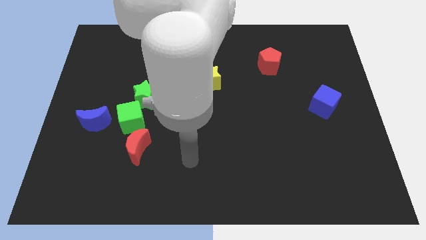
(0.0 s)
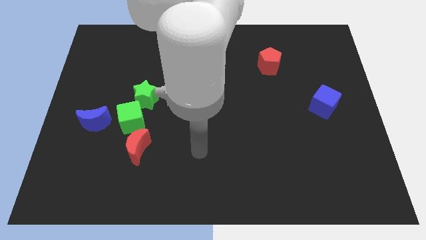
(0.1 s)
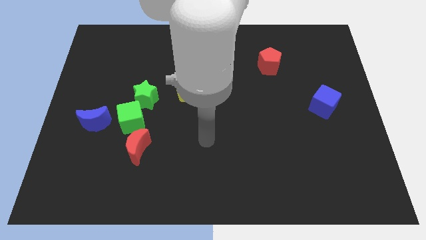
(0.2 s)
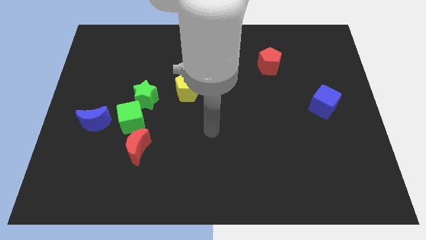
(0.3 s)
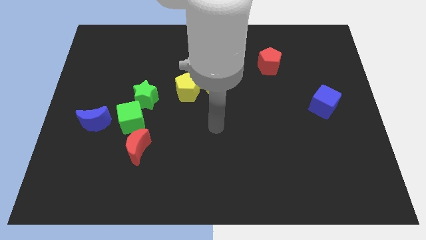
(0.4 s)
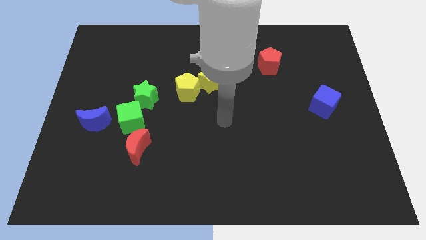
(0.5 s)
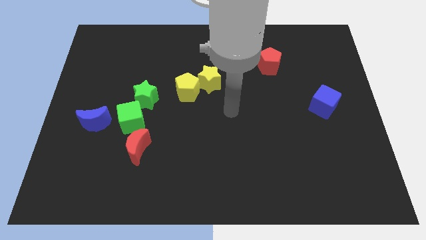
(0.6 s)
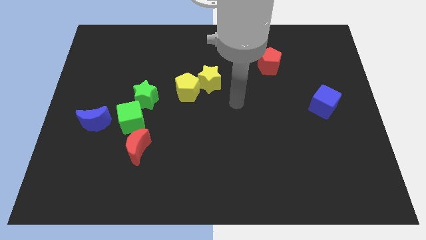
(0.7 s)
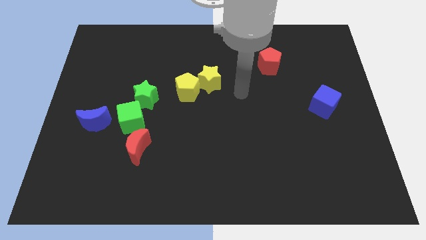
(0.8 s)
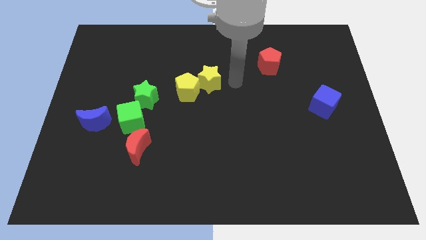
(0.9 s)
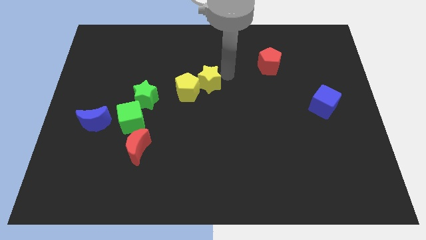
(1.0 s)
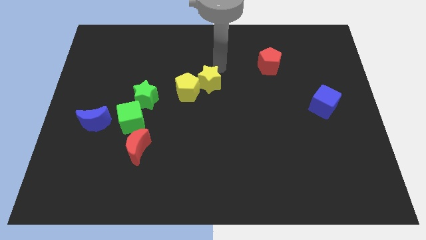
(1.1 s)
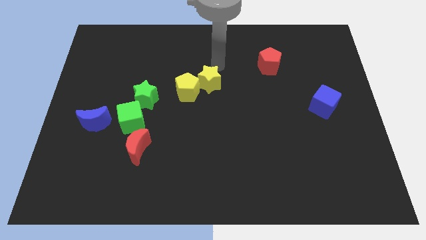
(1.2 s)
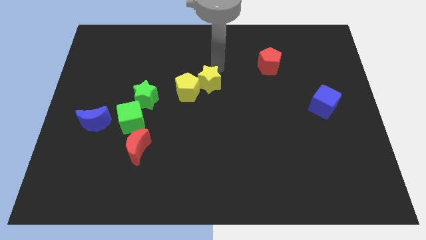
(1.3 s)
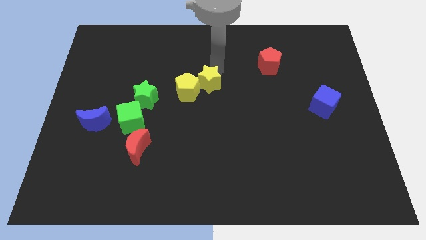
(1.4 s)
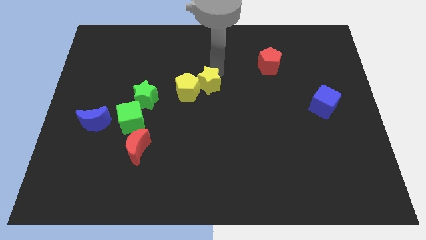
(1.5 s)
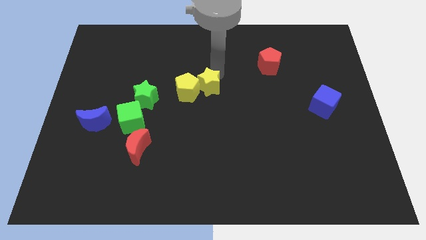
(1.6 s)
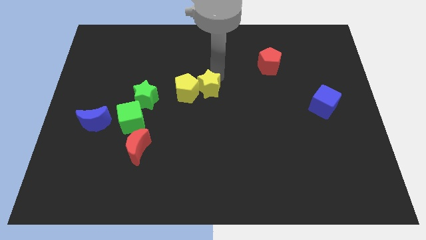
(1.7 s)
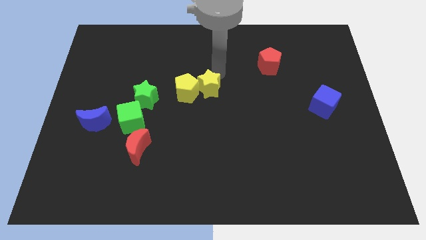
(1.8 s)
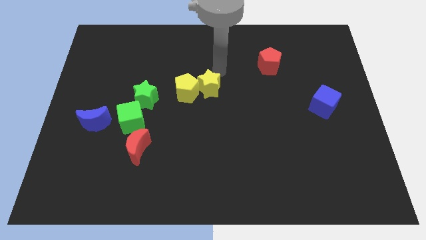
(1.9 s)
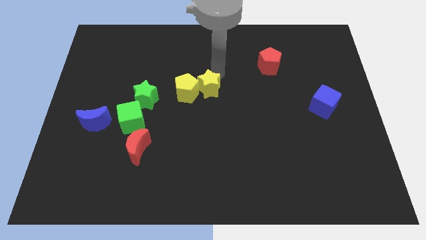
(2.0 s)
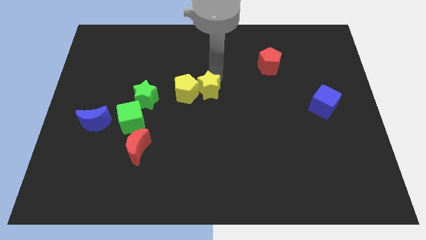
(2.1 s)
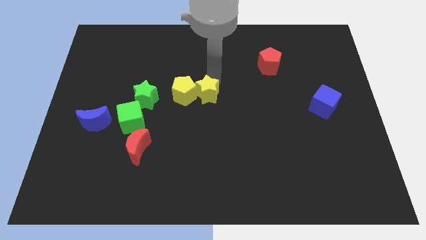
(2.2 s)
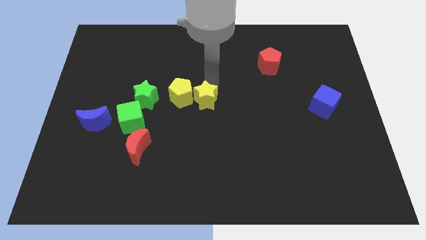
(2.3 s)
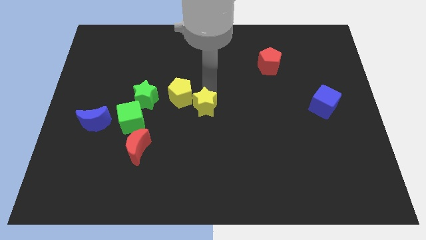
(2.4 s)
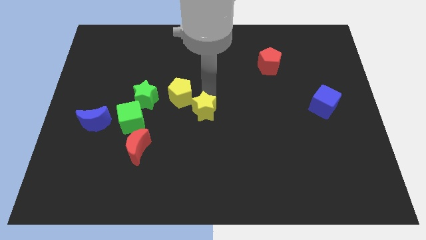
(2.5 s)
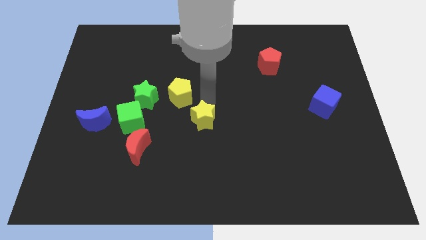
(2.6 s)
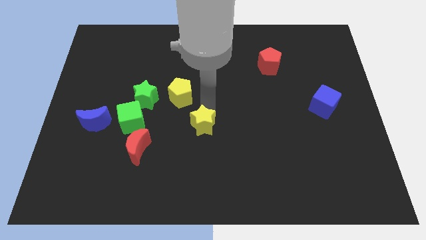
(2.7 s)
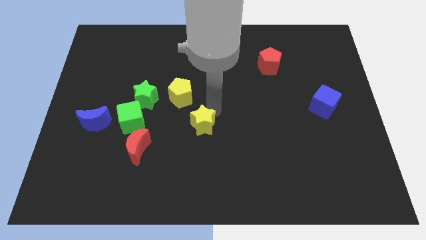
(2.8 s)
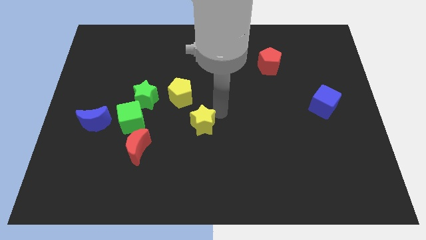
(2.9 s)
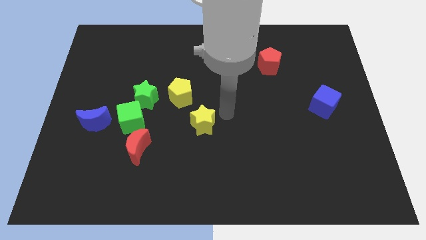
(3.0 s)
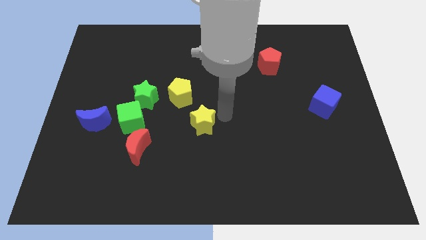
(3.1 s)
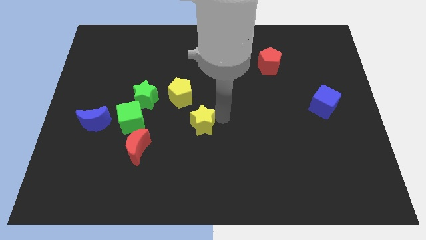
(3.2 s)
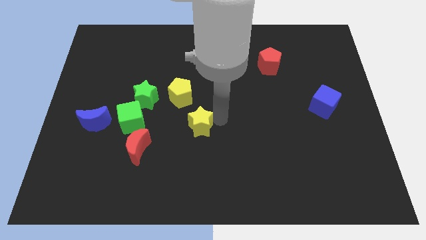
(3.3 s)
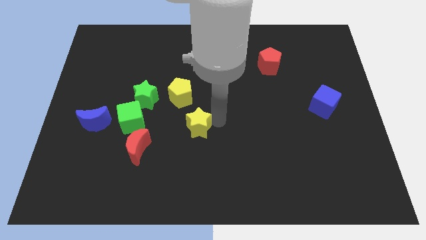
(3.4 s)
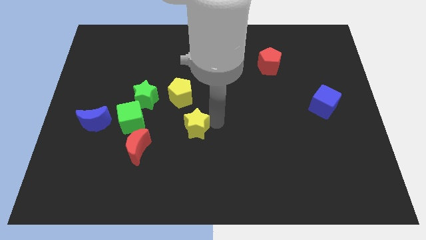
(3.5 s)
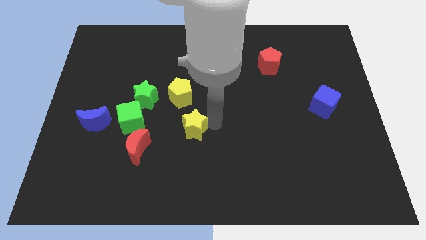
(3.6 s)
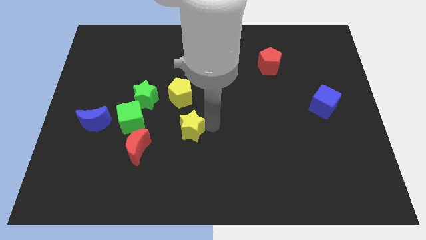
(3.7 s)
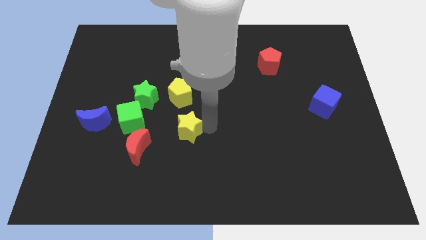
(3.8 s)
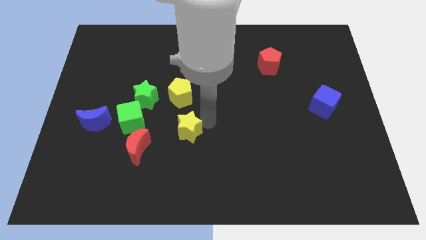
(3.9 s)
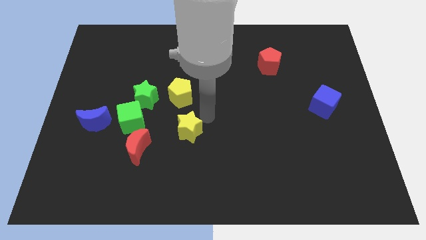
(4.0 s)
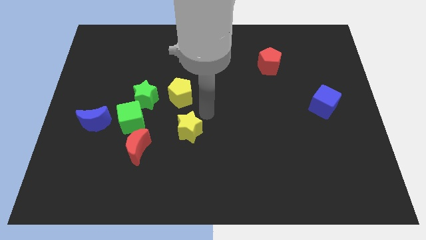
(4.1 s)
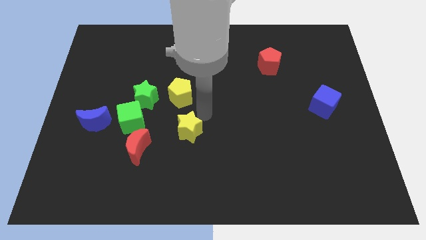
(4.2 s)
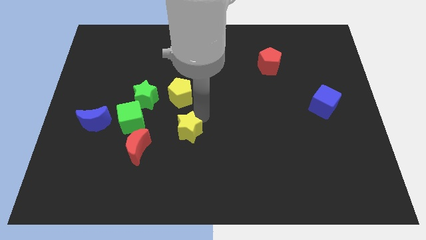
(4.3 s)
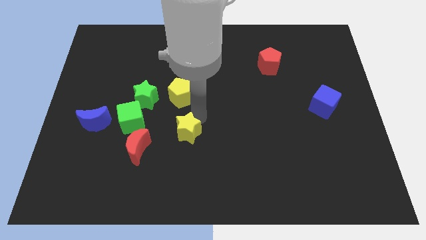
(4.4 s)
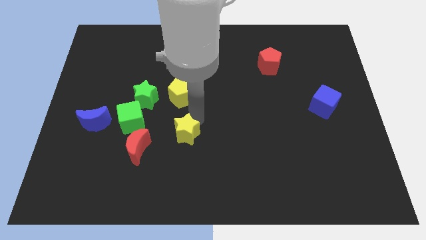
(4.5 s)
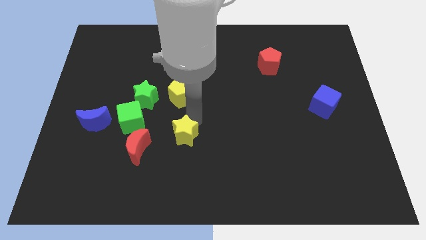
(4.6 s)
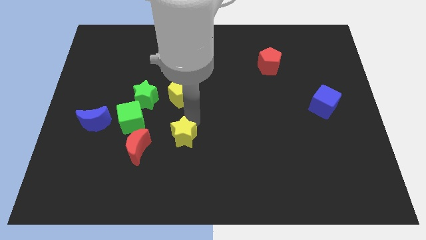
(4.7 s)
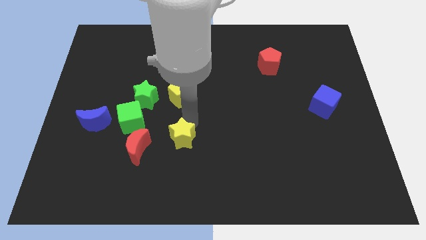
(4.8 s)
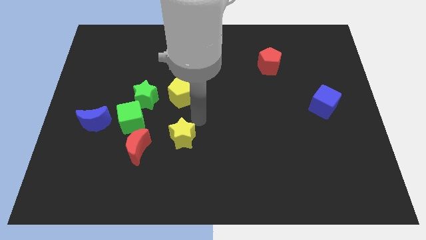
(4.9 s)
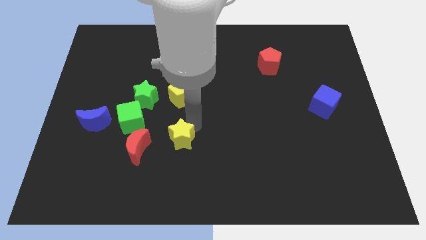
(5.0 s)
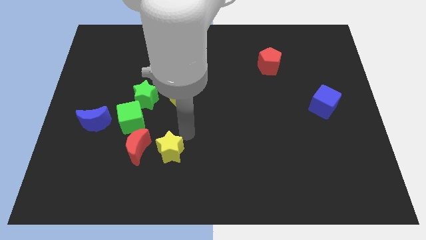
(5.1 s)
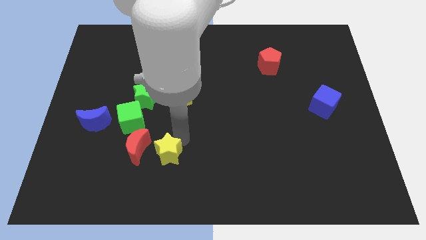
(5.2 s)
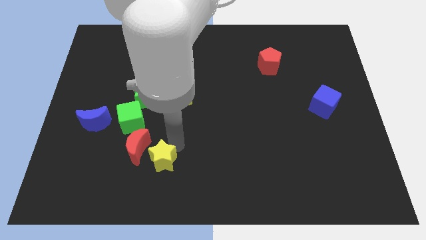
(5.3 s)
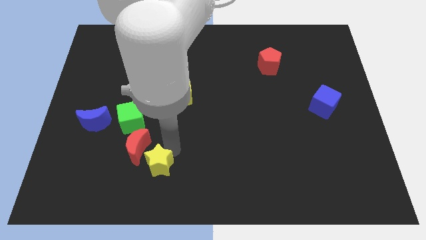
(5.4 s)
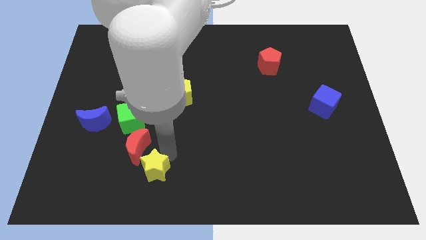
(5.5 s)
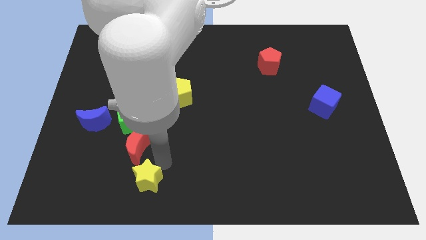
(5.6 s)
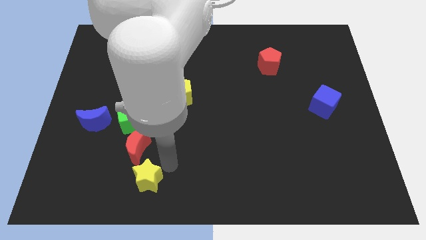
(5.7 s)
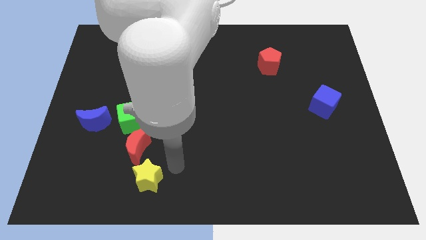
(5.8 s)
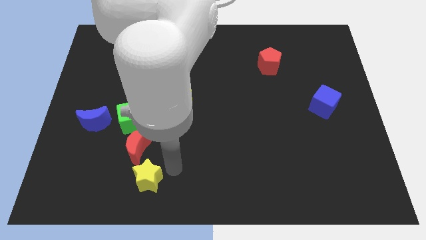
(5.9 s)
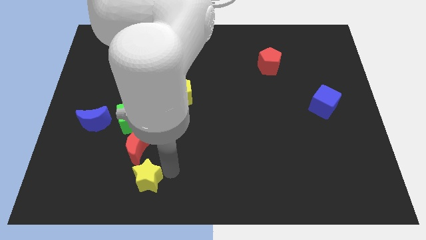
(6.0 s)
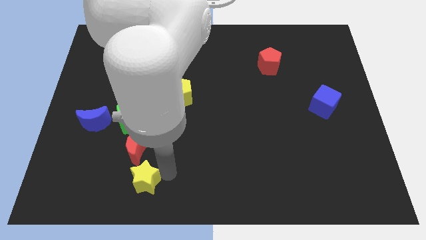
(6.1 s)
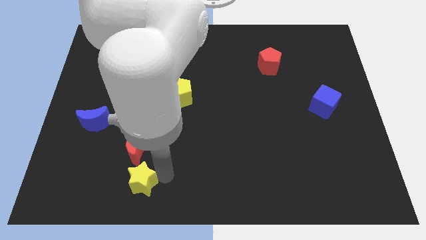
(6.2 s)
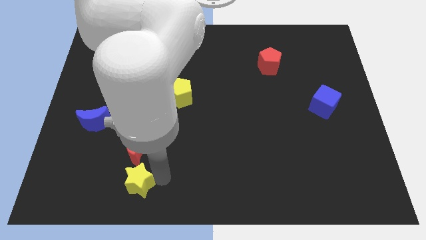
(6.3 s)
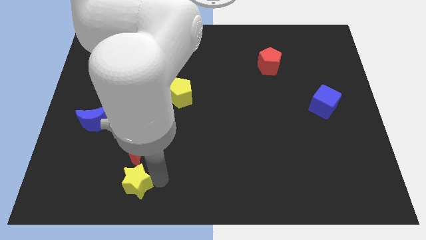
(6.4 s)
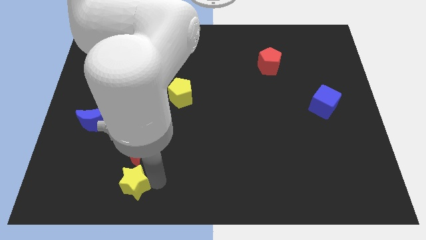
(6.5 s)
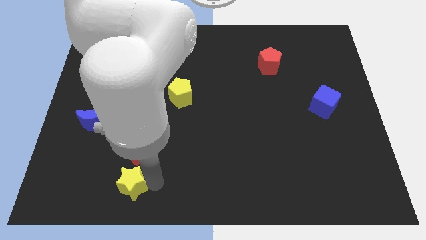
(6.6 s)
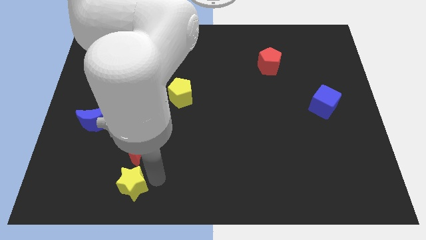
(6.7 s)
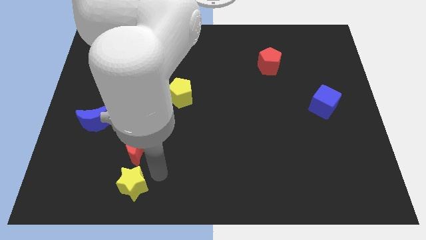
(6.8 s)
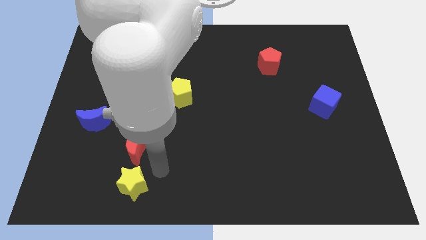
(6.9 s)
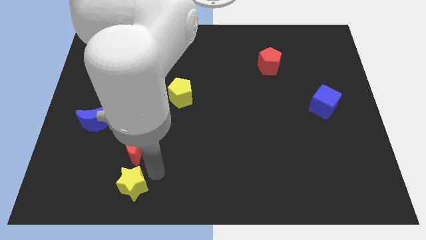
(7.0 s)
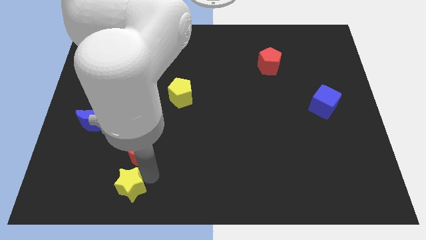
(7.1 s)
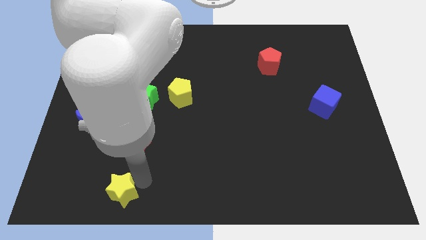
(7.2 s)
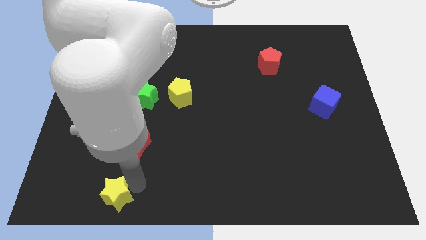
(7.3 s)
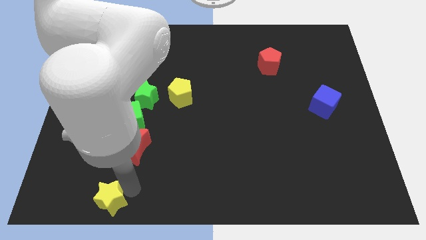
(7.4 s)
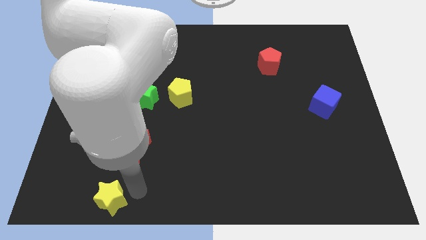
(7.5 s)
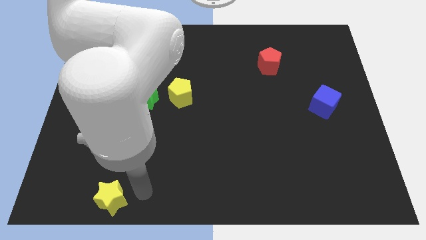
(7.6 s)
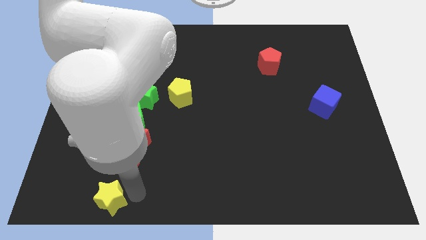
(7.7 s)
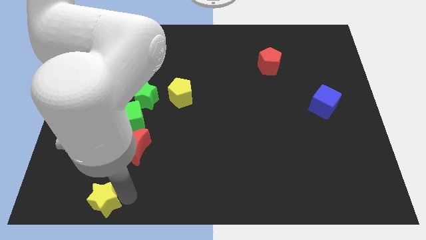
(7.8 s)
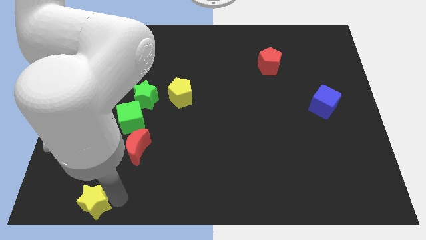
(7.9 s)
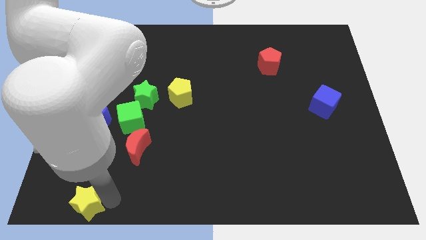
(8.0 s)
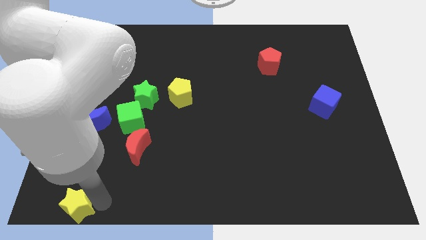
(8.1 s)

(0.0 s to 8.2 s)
put the yellow star to the bottom left corner
